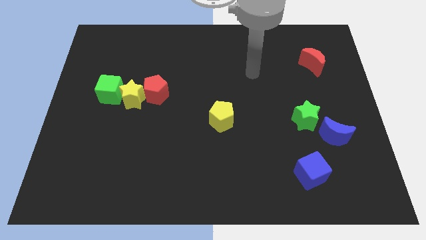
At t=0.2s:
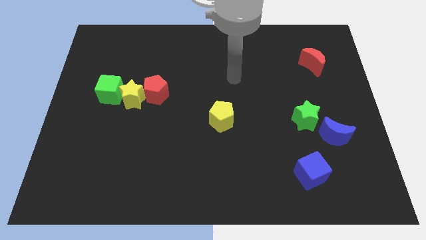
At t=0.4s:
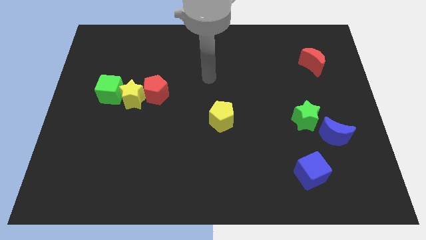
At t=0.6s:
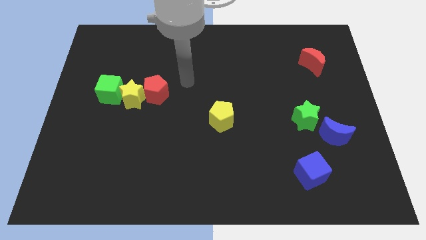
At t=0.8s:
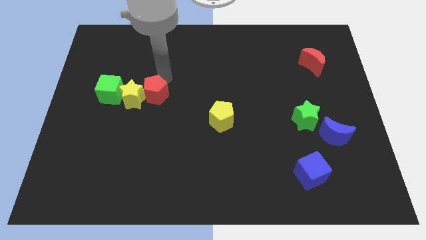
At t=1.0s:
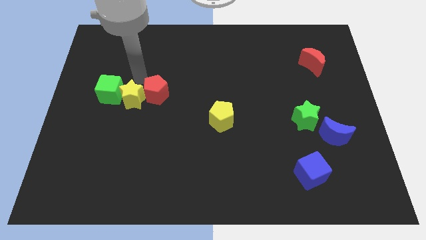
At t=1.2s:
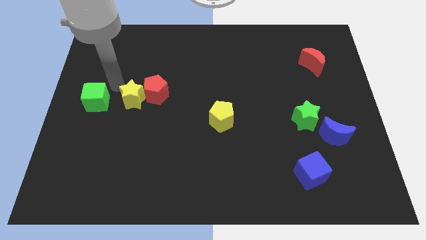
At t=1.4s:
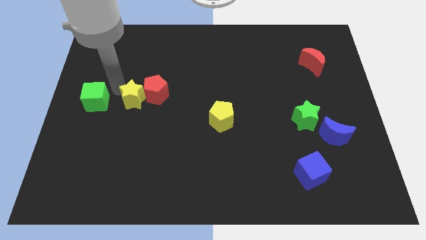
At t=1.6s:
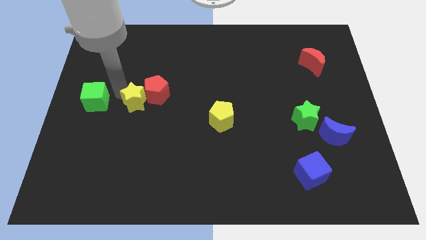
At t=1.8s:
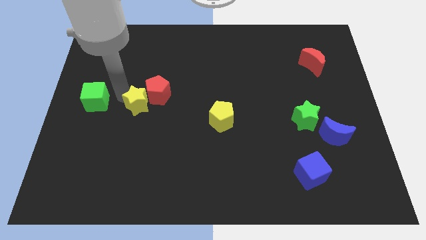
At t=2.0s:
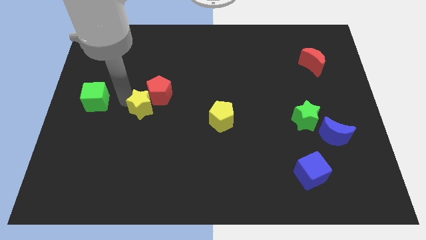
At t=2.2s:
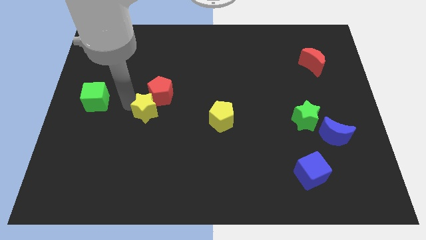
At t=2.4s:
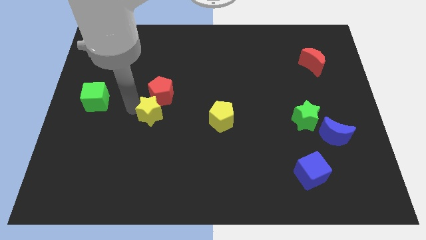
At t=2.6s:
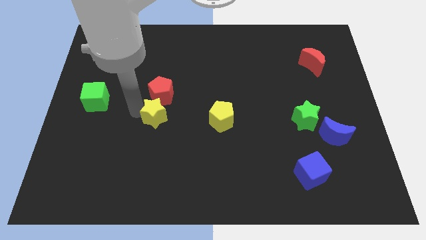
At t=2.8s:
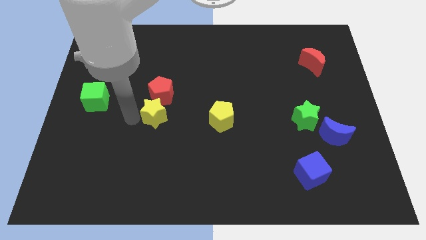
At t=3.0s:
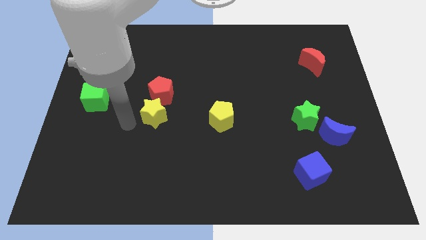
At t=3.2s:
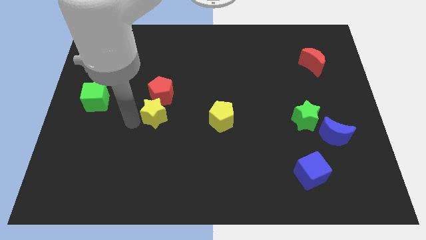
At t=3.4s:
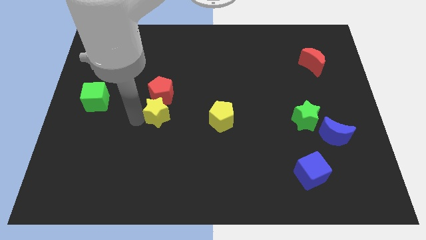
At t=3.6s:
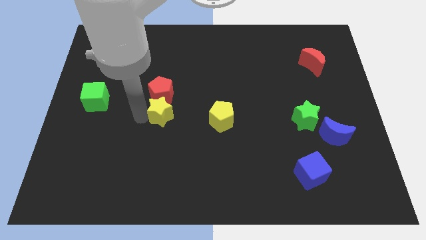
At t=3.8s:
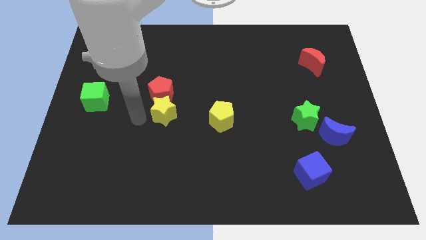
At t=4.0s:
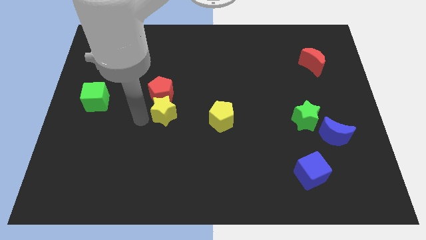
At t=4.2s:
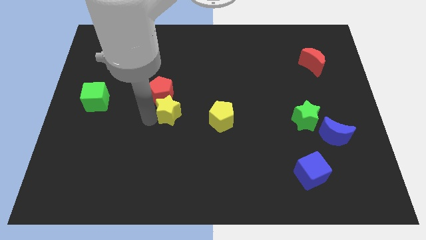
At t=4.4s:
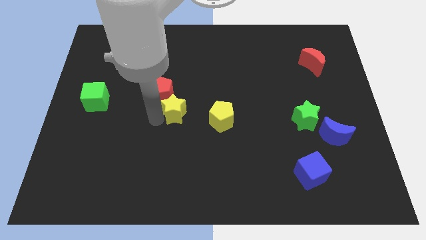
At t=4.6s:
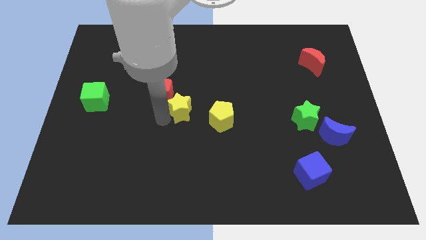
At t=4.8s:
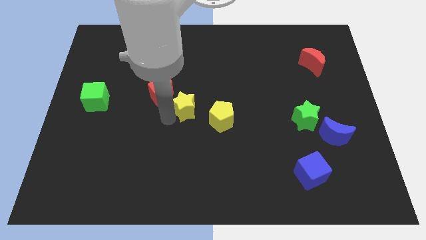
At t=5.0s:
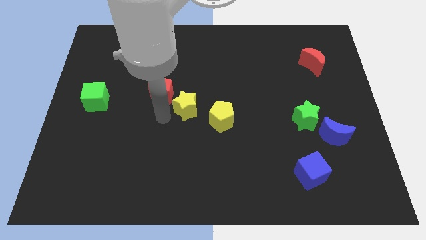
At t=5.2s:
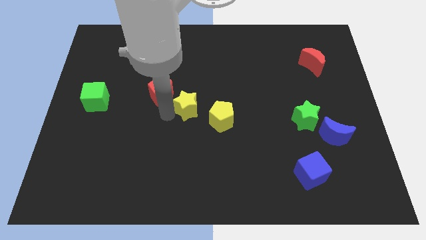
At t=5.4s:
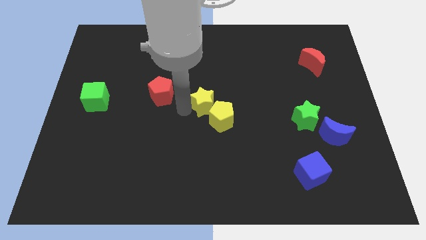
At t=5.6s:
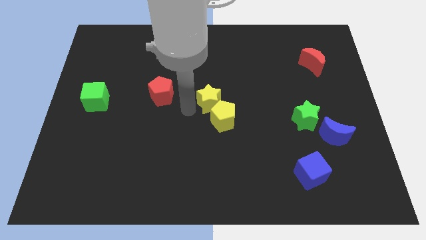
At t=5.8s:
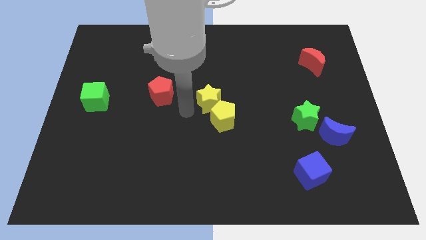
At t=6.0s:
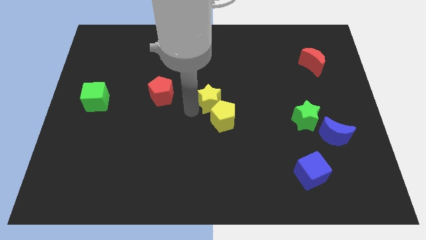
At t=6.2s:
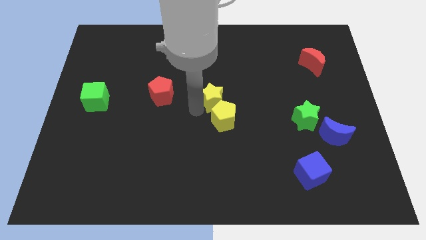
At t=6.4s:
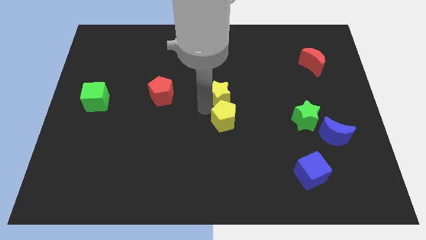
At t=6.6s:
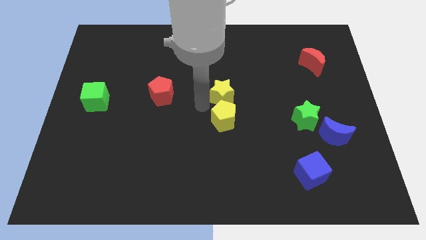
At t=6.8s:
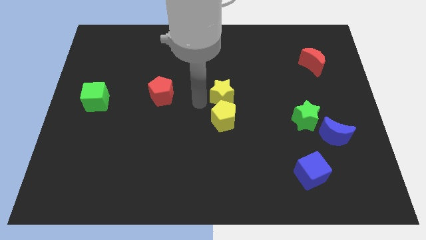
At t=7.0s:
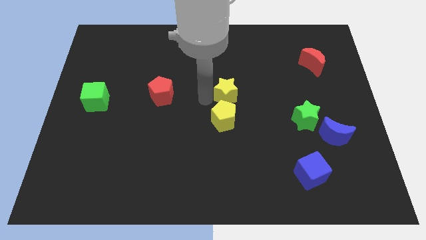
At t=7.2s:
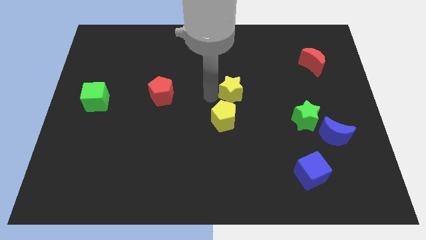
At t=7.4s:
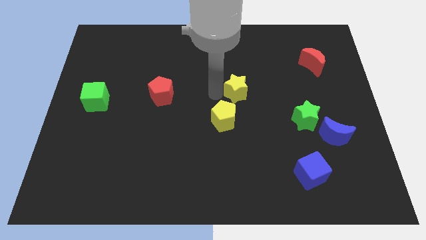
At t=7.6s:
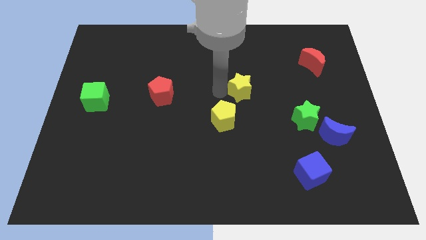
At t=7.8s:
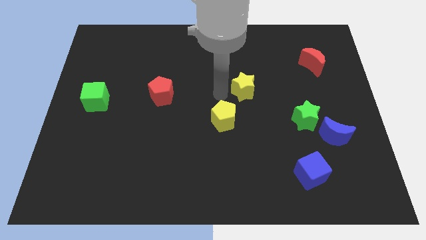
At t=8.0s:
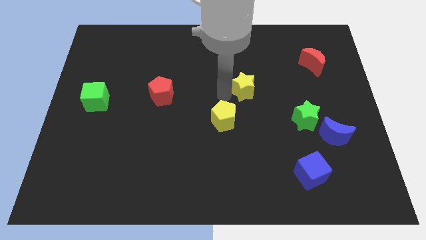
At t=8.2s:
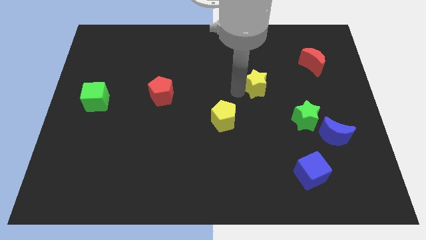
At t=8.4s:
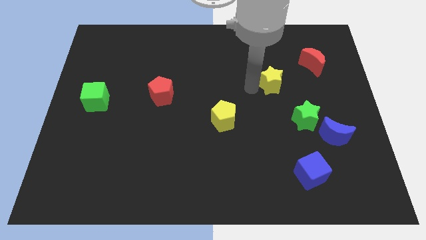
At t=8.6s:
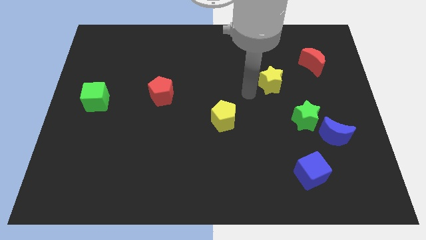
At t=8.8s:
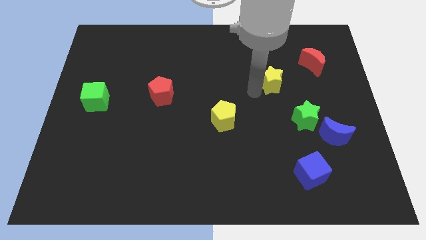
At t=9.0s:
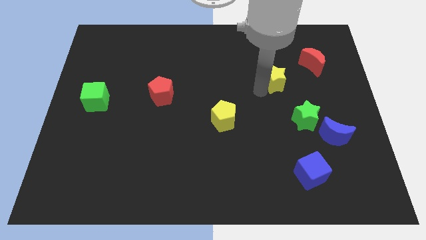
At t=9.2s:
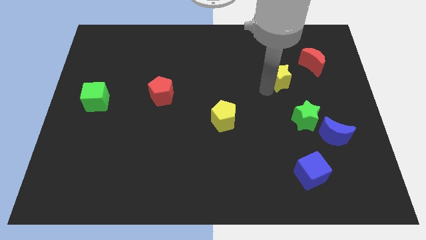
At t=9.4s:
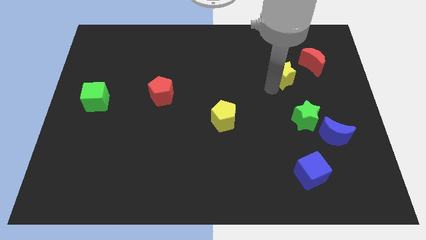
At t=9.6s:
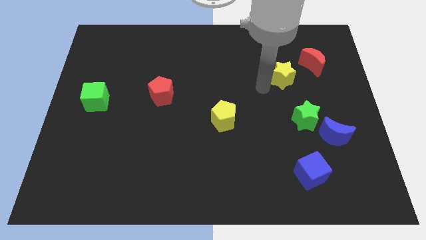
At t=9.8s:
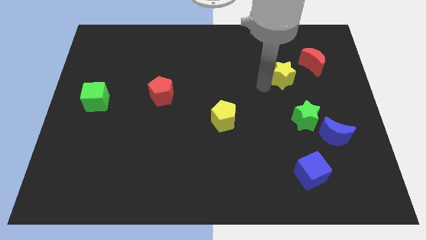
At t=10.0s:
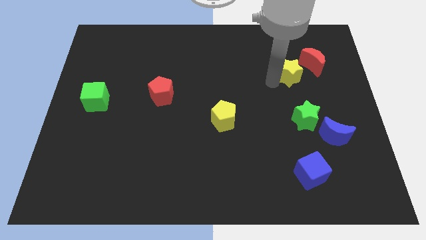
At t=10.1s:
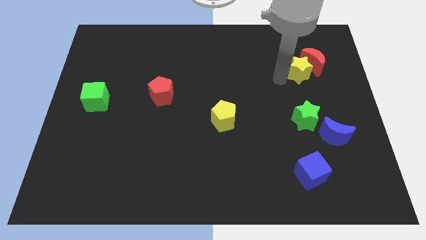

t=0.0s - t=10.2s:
put the yellow star close to the red moon

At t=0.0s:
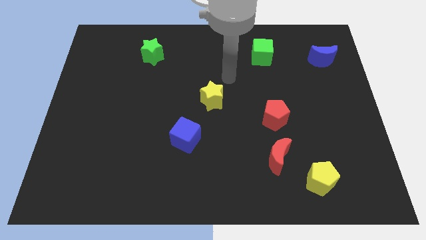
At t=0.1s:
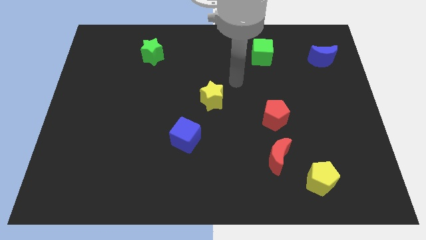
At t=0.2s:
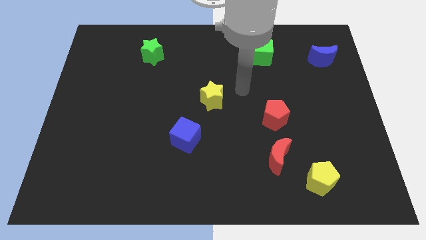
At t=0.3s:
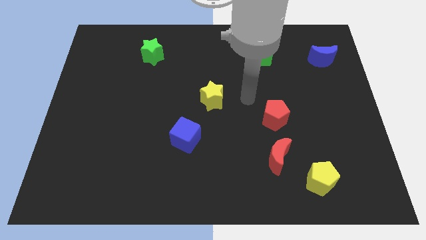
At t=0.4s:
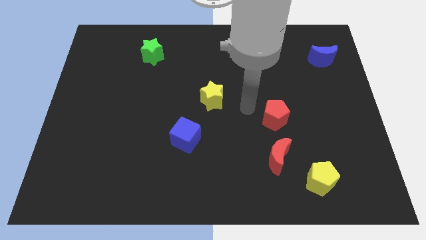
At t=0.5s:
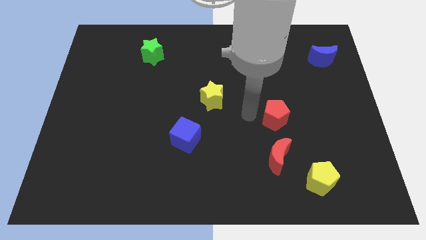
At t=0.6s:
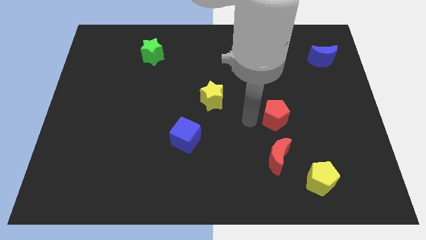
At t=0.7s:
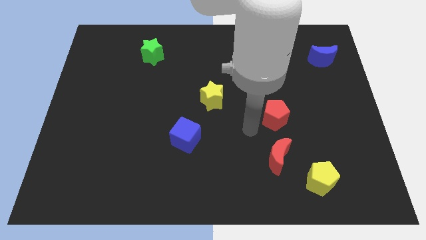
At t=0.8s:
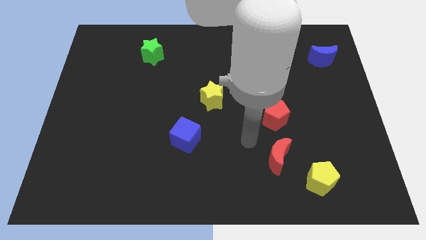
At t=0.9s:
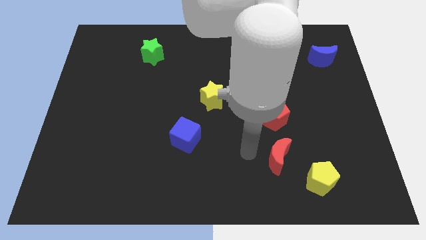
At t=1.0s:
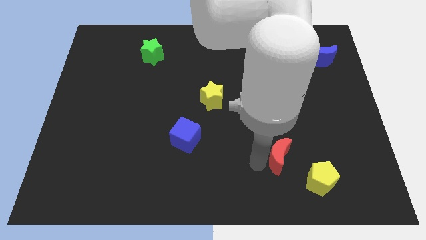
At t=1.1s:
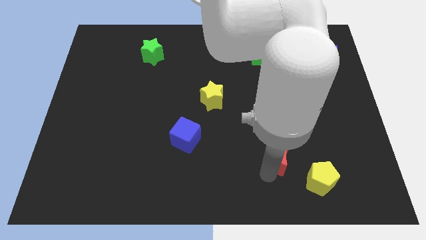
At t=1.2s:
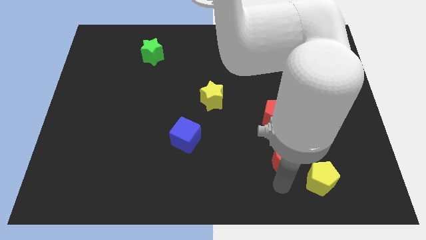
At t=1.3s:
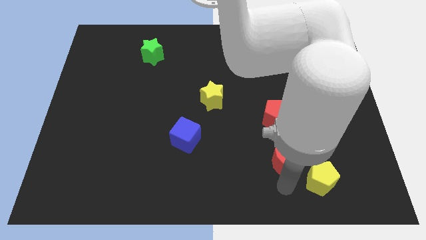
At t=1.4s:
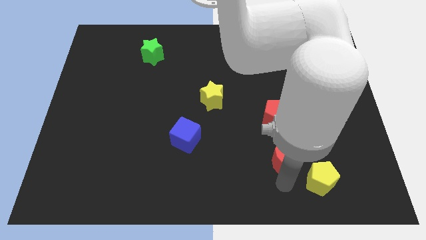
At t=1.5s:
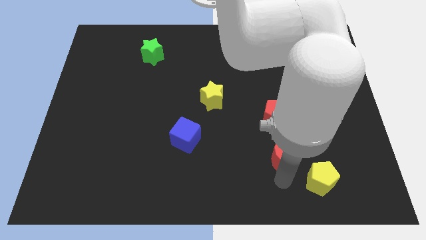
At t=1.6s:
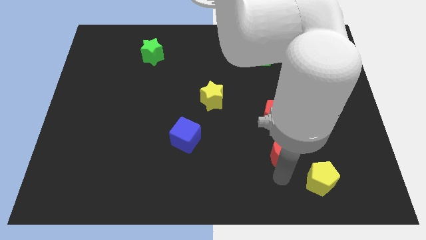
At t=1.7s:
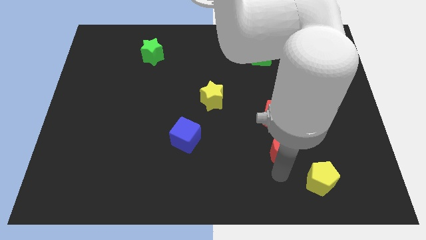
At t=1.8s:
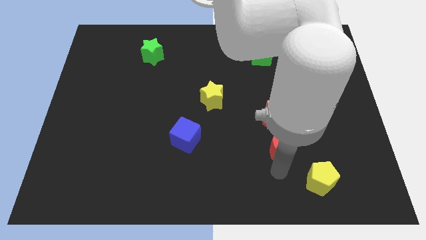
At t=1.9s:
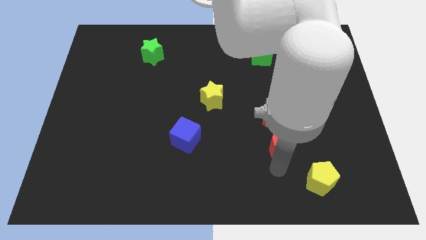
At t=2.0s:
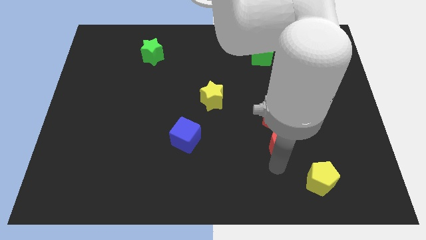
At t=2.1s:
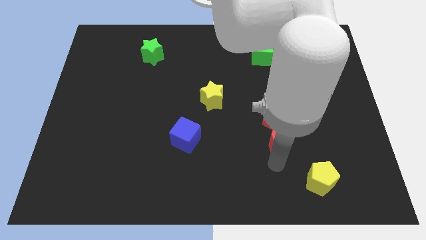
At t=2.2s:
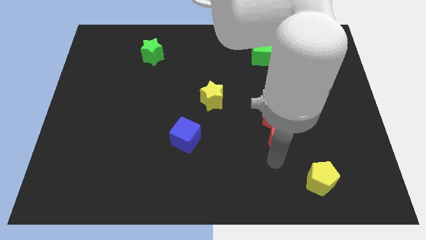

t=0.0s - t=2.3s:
put the red moon towards the red pentagon

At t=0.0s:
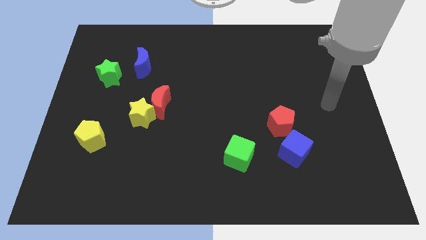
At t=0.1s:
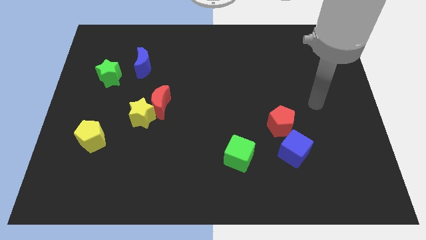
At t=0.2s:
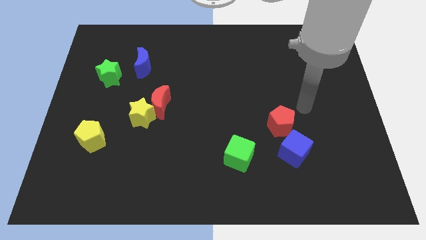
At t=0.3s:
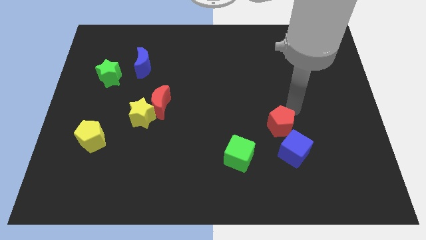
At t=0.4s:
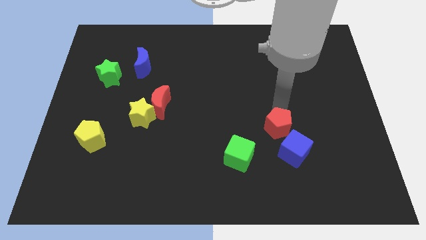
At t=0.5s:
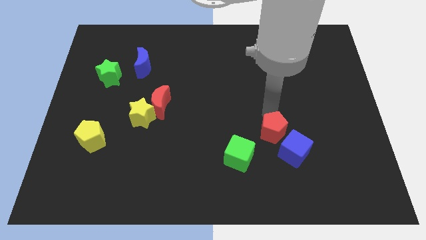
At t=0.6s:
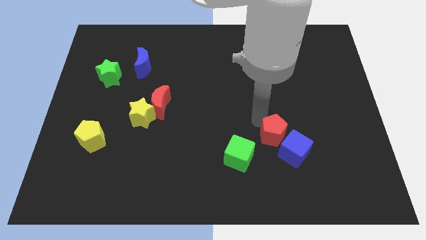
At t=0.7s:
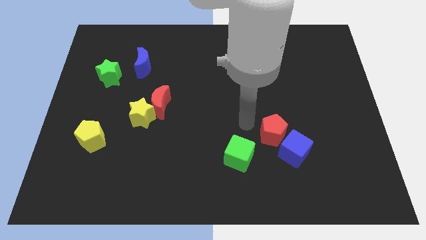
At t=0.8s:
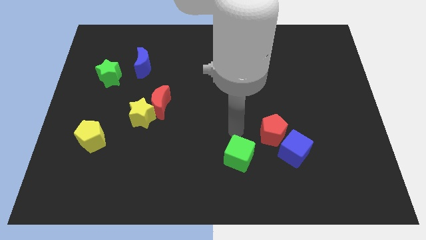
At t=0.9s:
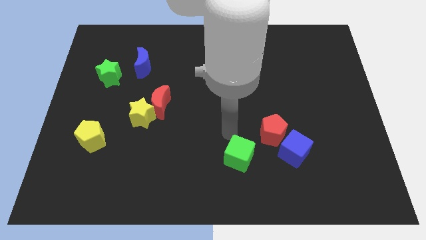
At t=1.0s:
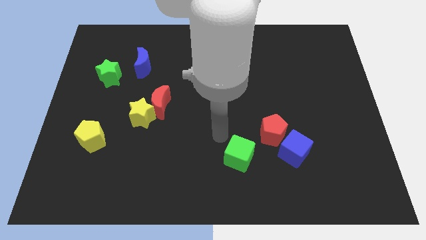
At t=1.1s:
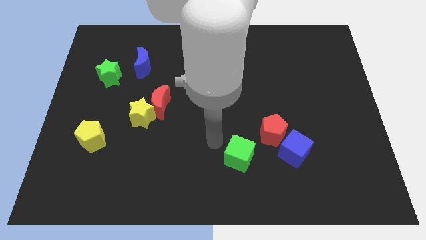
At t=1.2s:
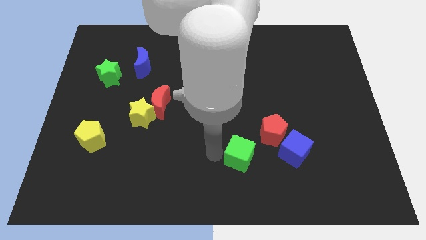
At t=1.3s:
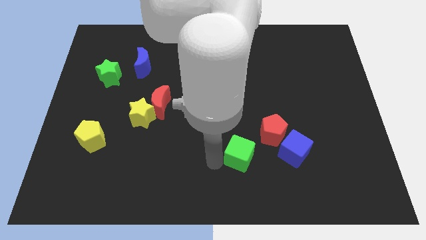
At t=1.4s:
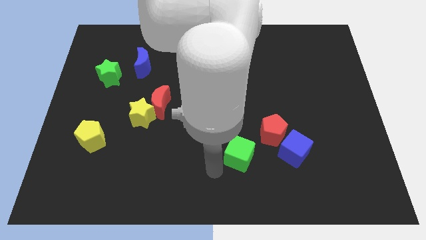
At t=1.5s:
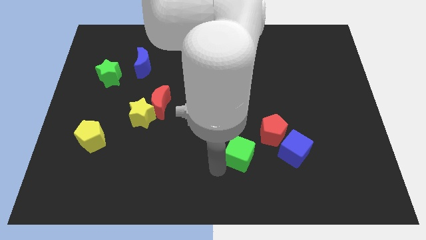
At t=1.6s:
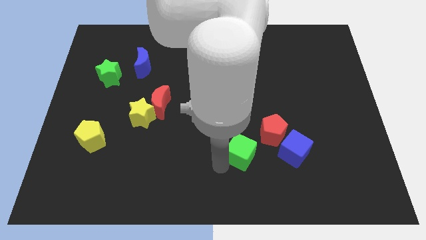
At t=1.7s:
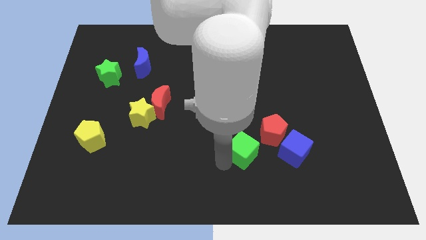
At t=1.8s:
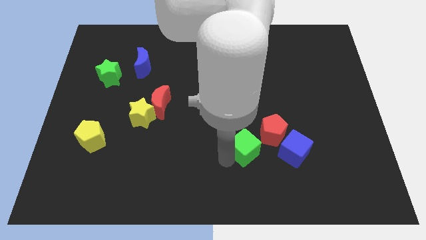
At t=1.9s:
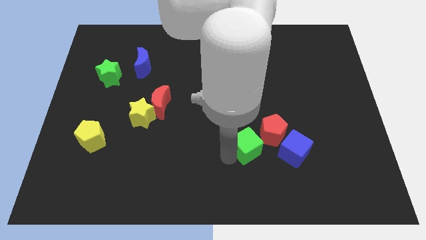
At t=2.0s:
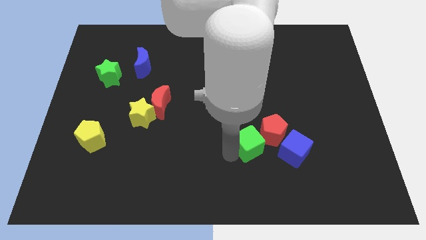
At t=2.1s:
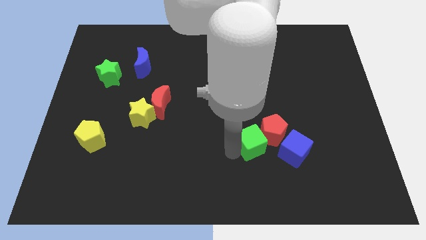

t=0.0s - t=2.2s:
move the green cube towards the red pentagon
